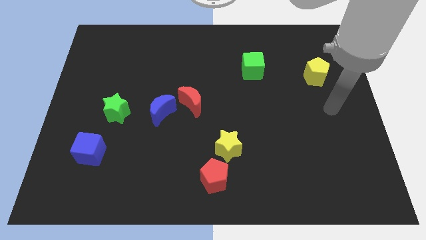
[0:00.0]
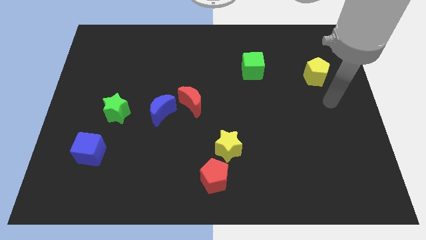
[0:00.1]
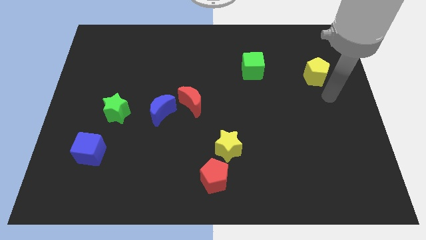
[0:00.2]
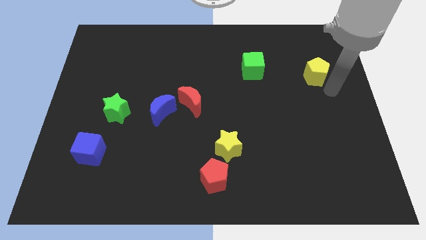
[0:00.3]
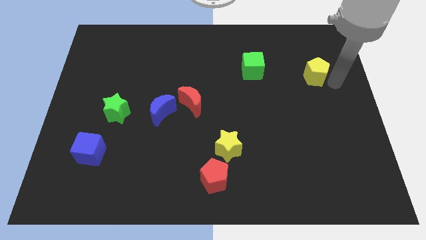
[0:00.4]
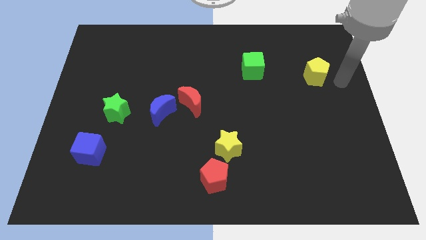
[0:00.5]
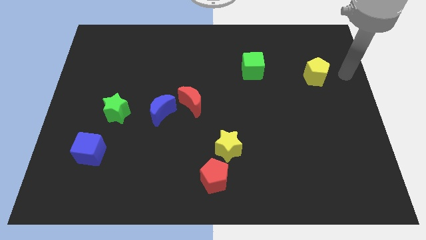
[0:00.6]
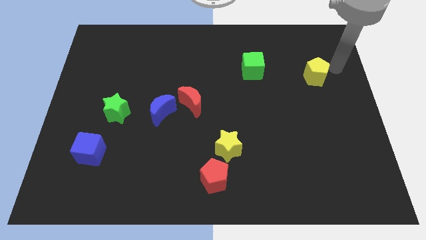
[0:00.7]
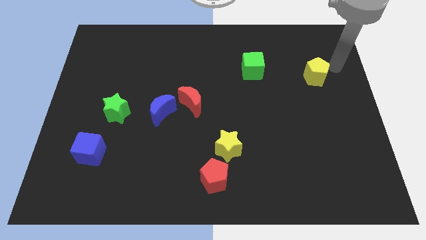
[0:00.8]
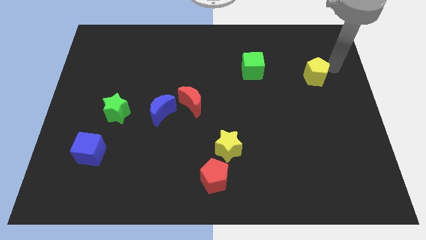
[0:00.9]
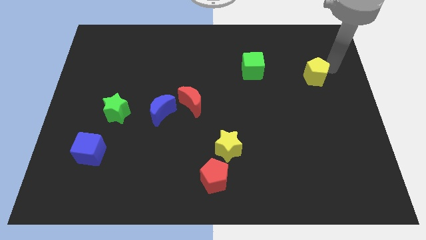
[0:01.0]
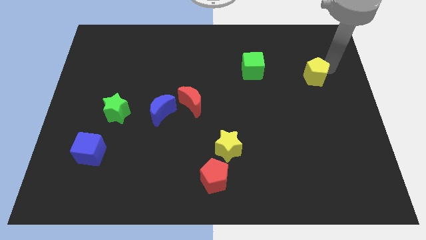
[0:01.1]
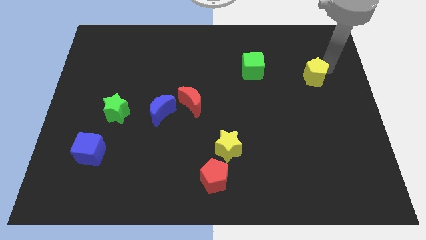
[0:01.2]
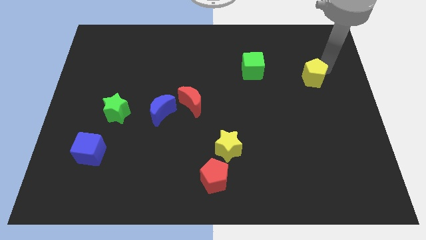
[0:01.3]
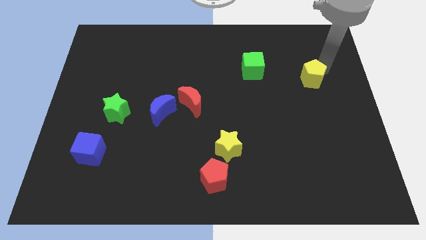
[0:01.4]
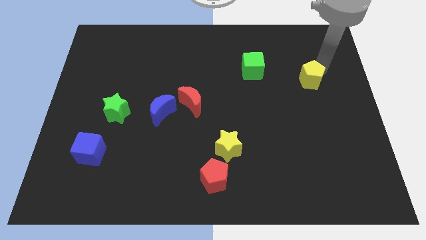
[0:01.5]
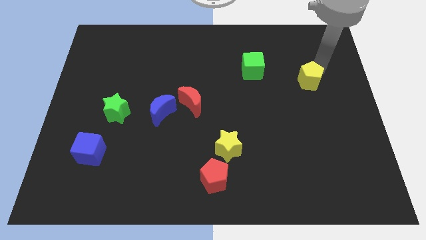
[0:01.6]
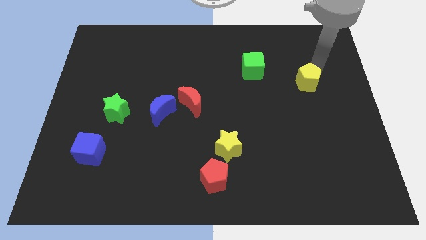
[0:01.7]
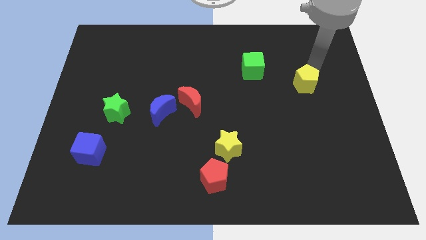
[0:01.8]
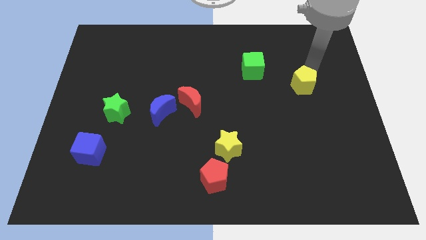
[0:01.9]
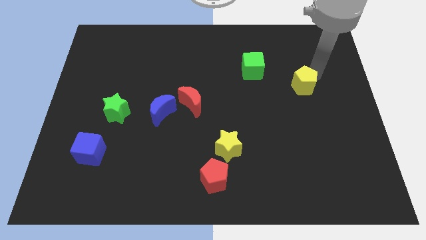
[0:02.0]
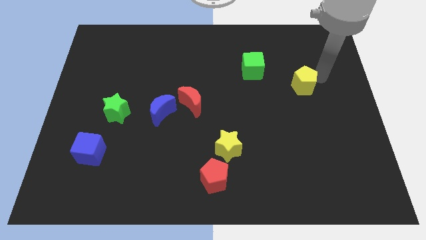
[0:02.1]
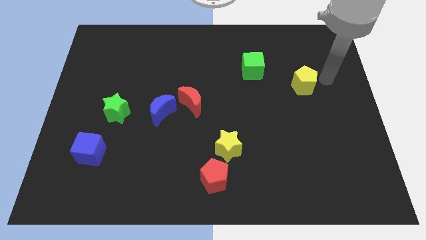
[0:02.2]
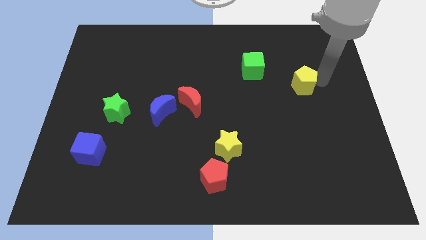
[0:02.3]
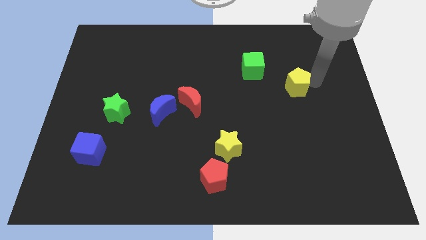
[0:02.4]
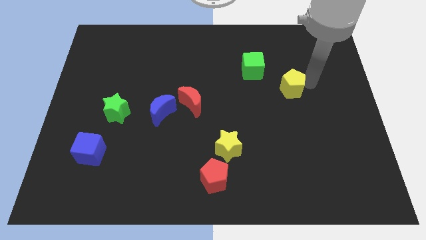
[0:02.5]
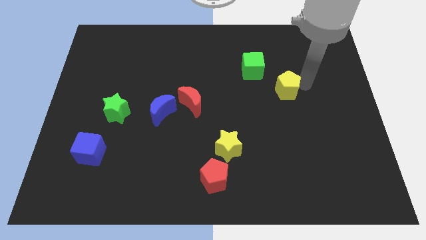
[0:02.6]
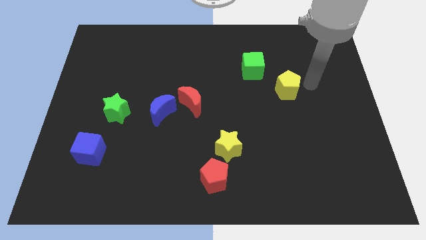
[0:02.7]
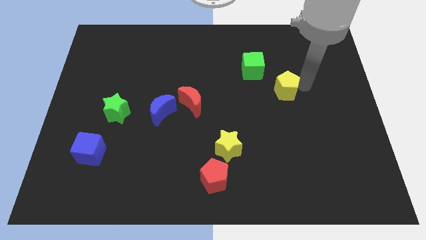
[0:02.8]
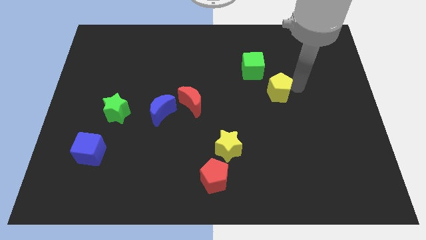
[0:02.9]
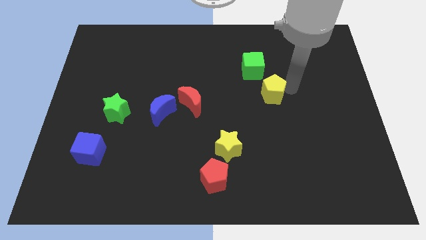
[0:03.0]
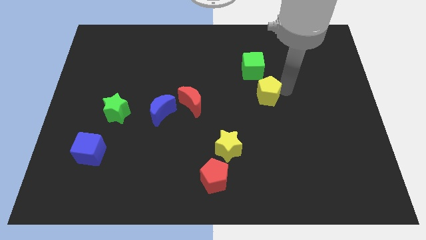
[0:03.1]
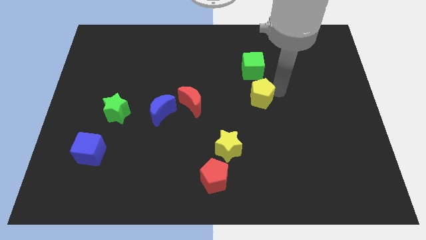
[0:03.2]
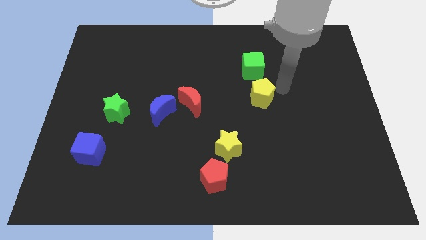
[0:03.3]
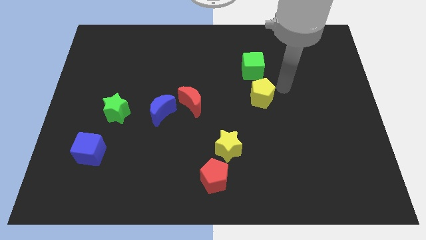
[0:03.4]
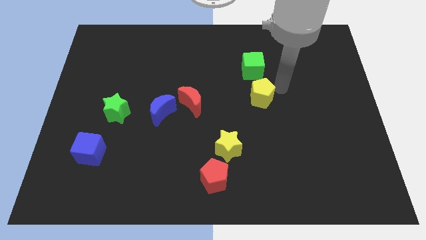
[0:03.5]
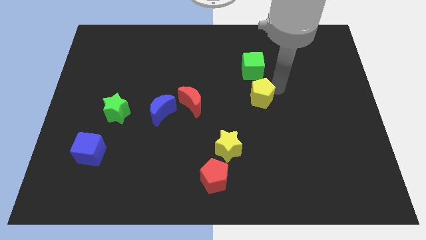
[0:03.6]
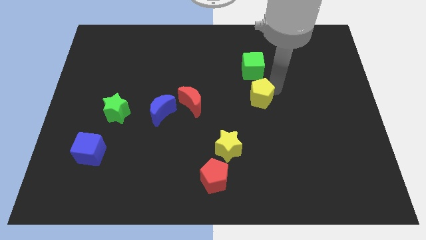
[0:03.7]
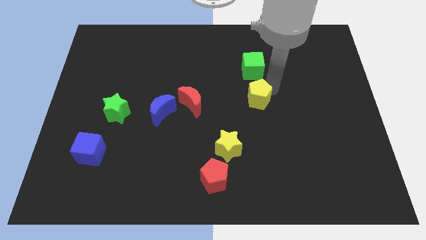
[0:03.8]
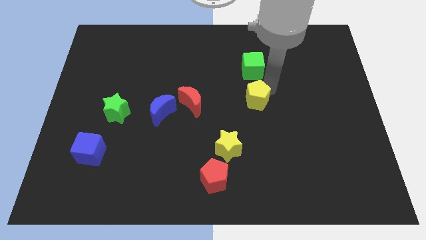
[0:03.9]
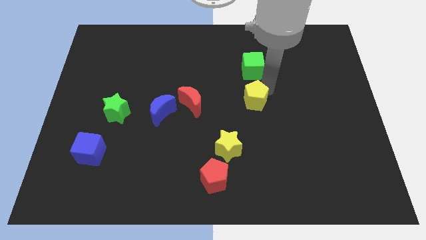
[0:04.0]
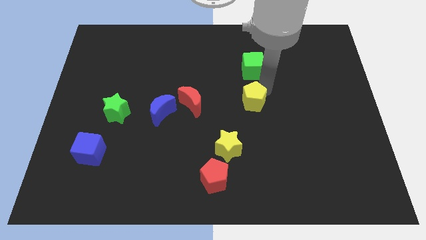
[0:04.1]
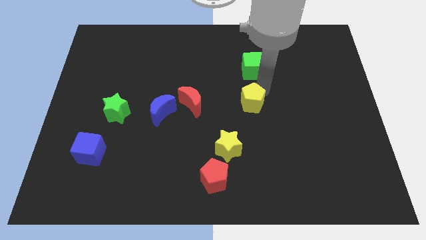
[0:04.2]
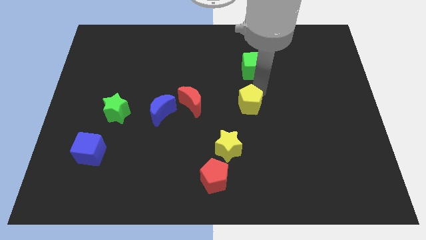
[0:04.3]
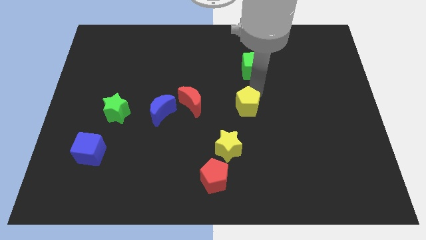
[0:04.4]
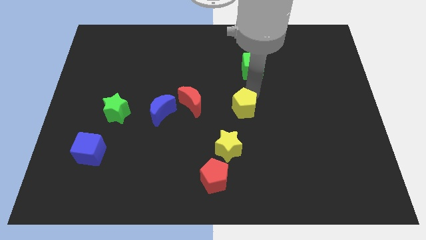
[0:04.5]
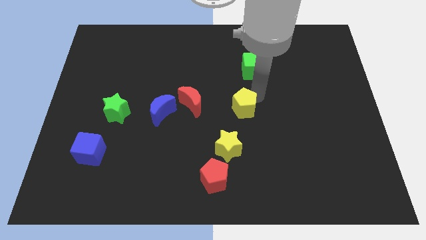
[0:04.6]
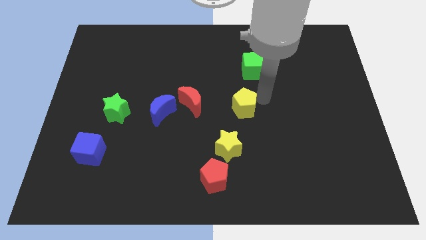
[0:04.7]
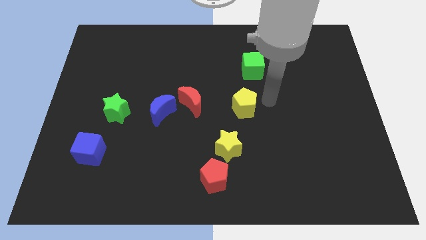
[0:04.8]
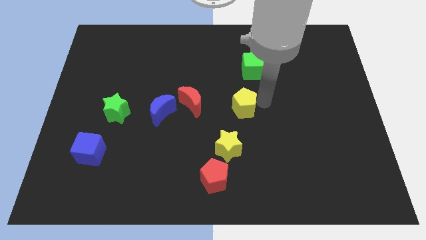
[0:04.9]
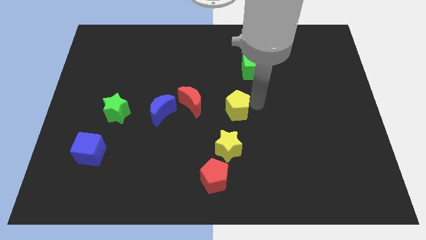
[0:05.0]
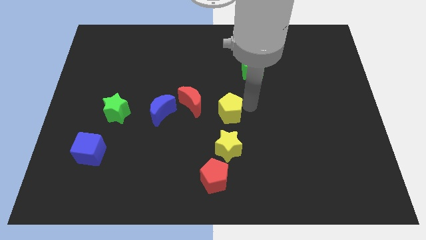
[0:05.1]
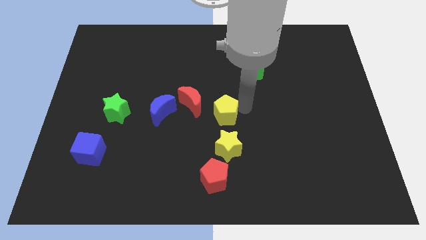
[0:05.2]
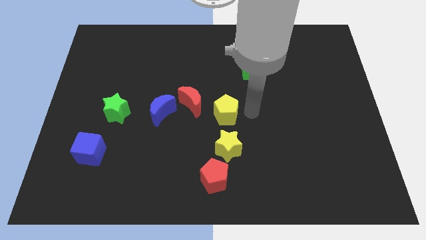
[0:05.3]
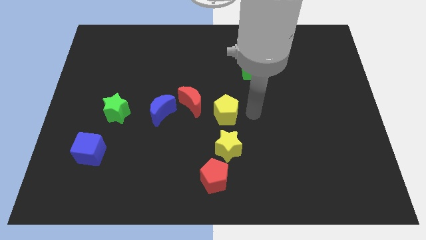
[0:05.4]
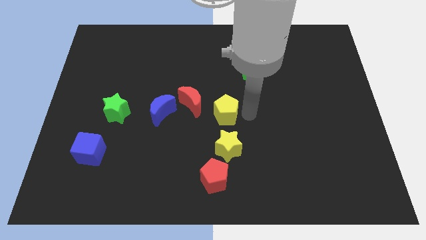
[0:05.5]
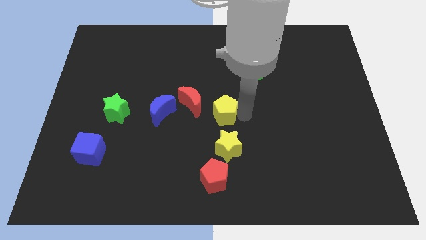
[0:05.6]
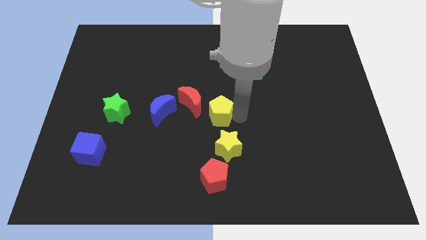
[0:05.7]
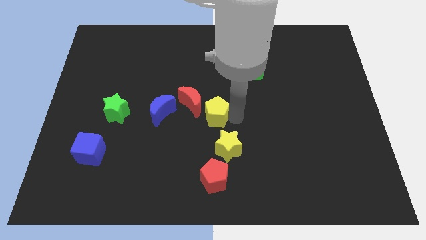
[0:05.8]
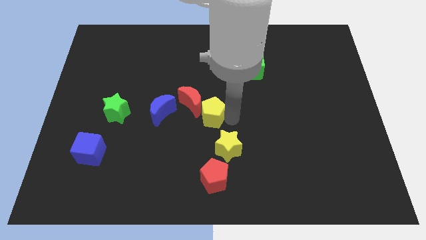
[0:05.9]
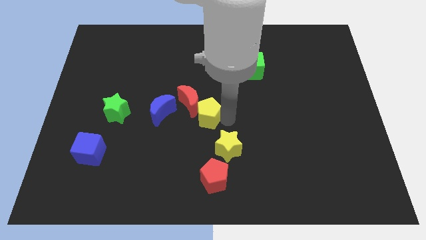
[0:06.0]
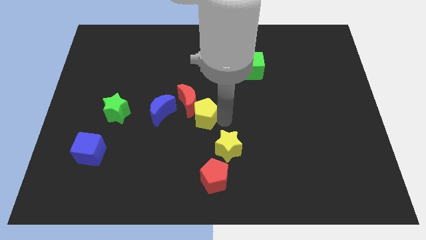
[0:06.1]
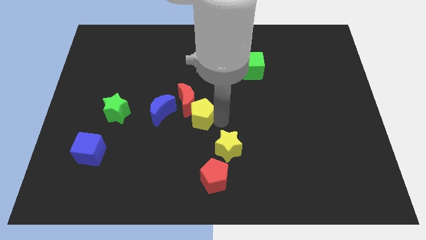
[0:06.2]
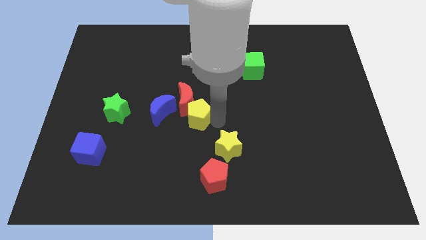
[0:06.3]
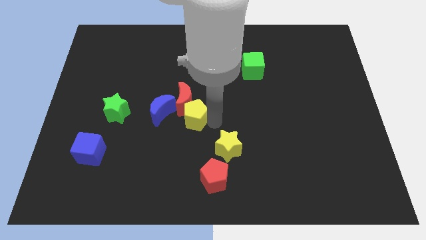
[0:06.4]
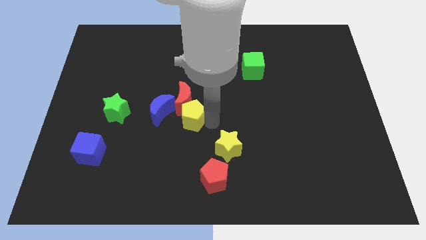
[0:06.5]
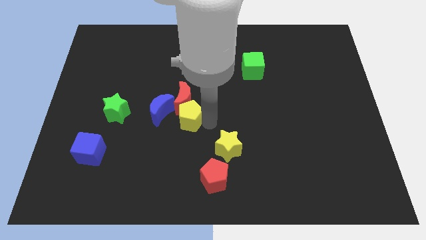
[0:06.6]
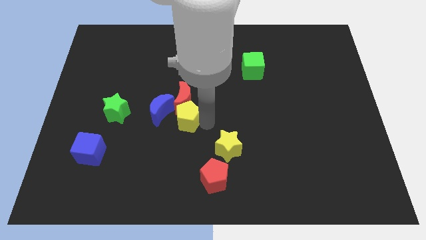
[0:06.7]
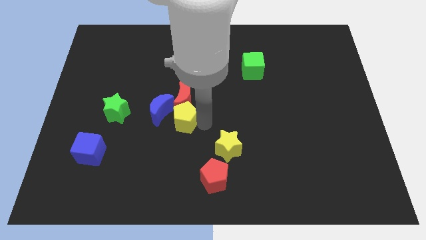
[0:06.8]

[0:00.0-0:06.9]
slide the yellow pentagon towards the blue moon

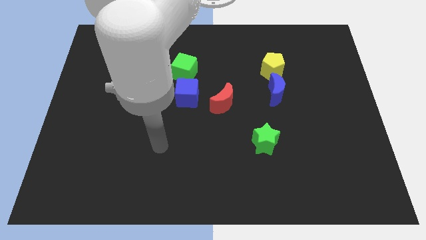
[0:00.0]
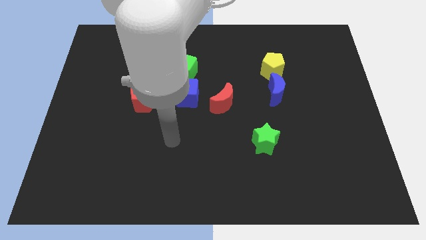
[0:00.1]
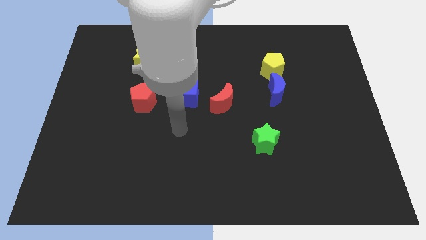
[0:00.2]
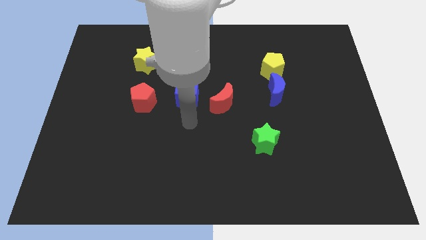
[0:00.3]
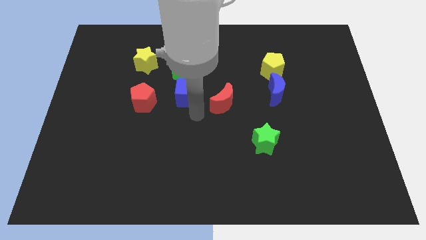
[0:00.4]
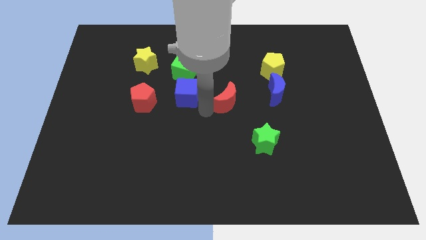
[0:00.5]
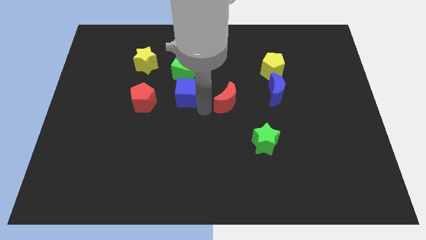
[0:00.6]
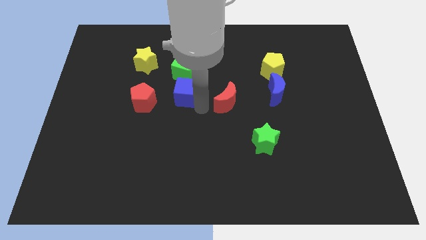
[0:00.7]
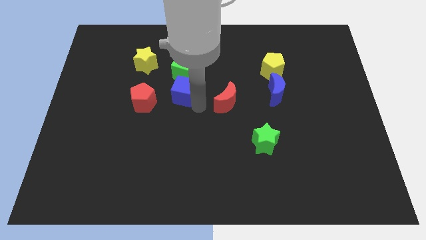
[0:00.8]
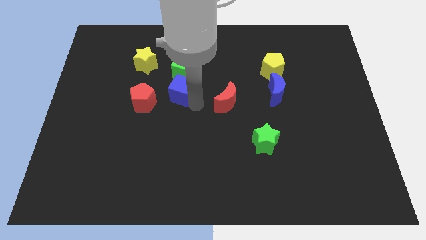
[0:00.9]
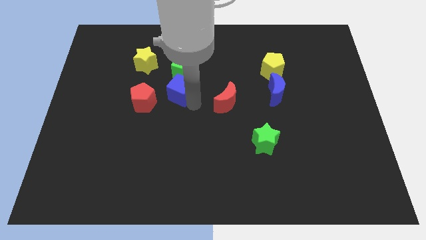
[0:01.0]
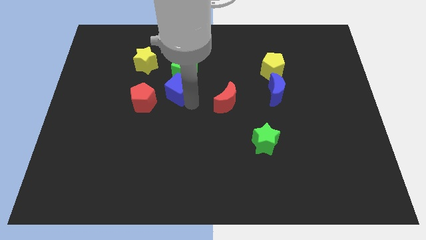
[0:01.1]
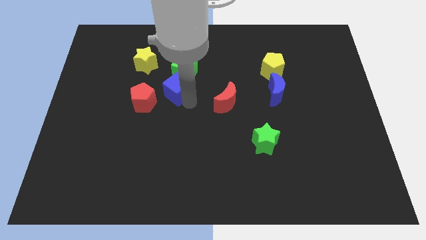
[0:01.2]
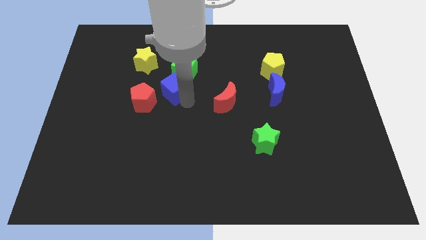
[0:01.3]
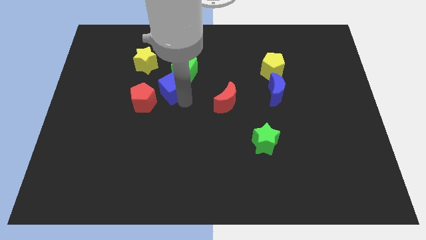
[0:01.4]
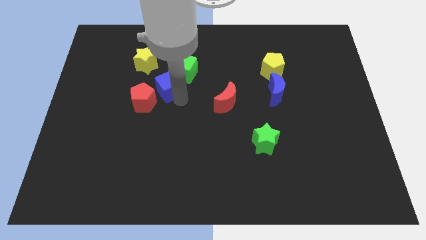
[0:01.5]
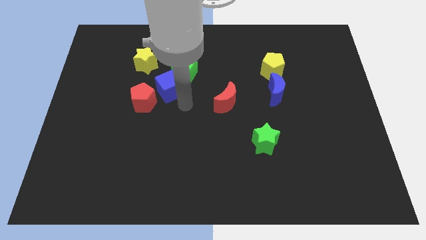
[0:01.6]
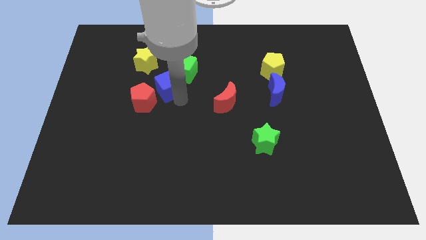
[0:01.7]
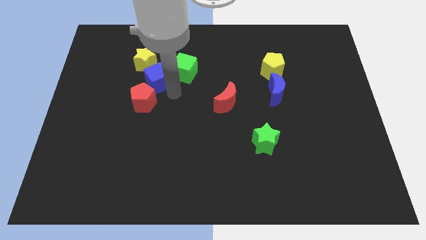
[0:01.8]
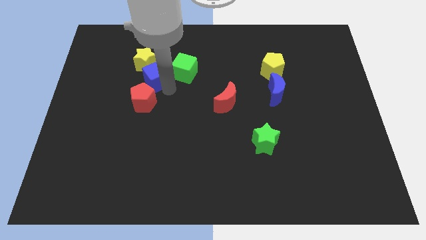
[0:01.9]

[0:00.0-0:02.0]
move the blue cube next to the yellow star
